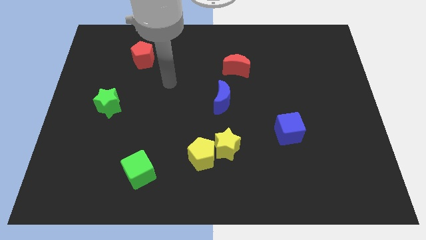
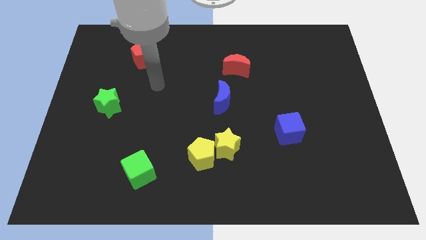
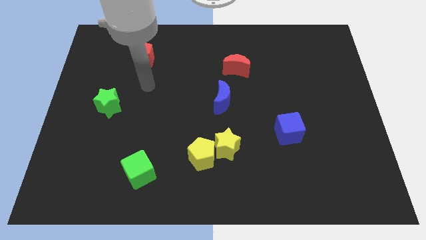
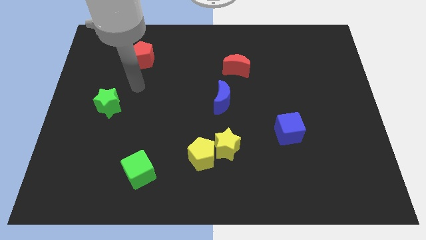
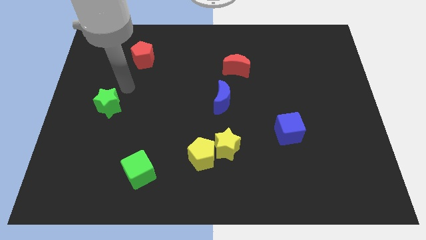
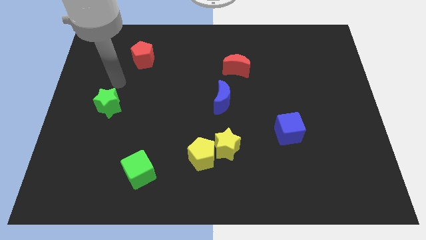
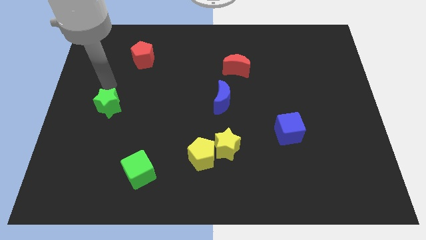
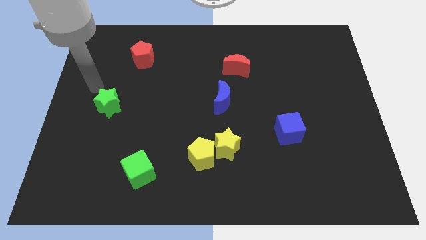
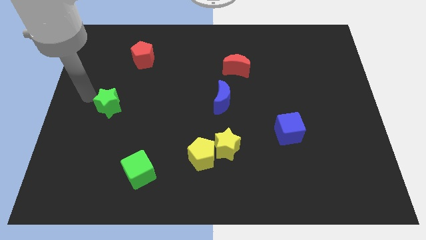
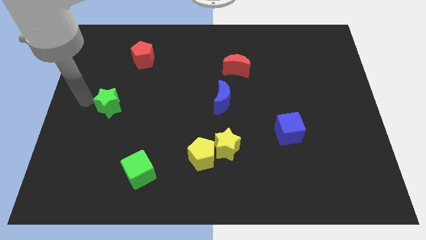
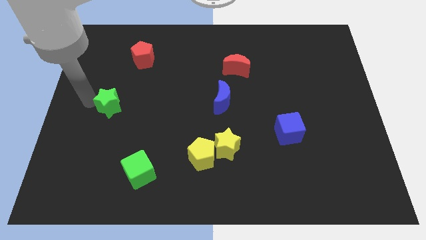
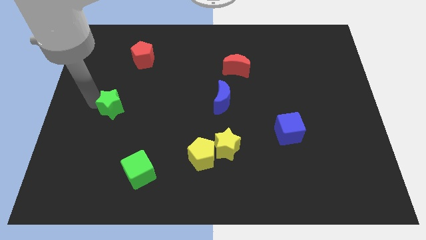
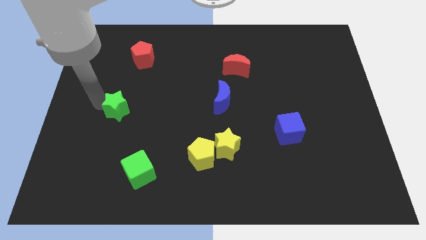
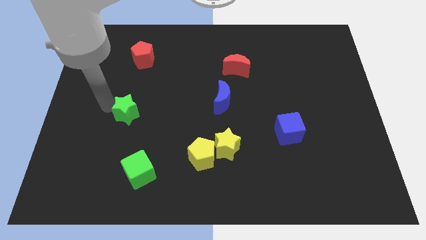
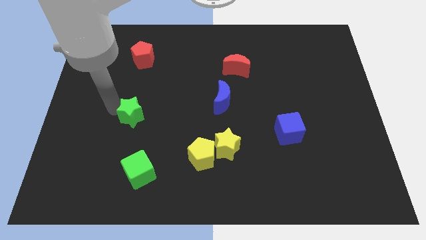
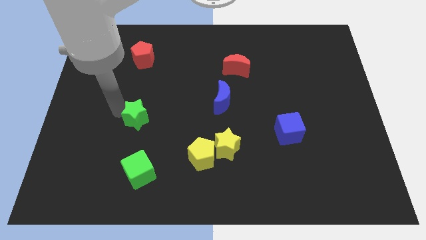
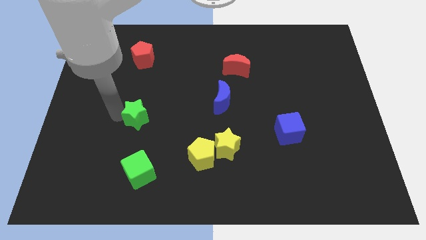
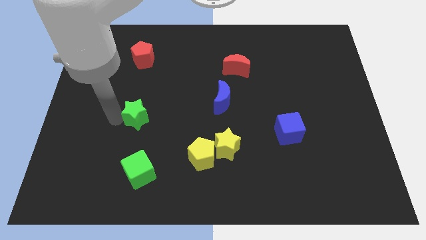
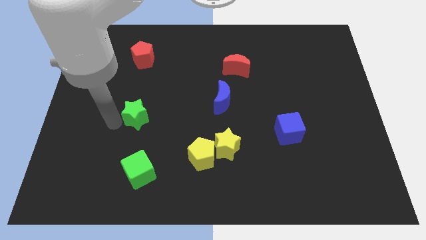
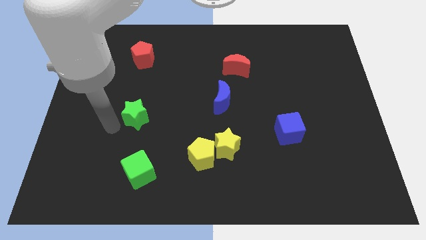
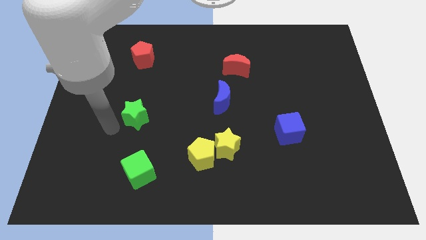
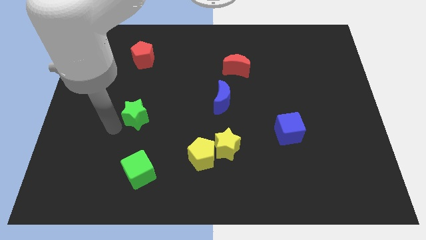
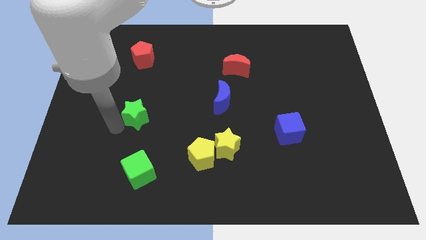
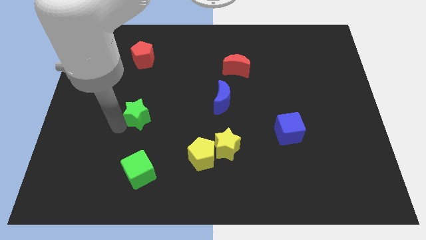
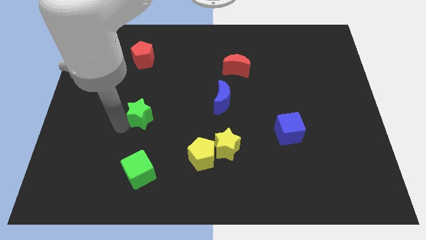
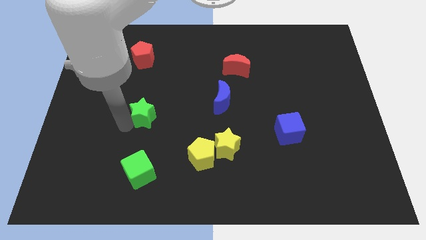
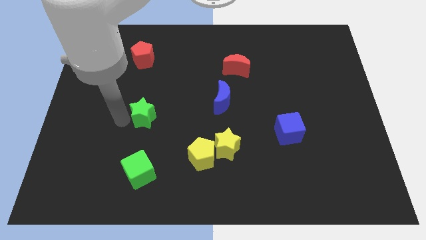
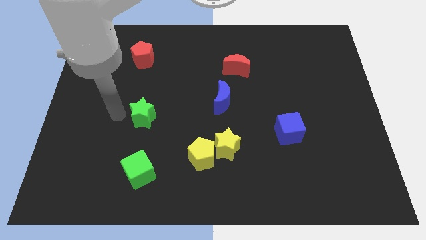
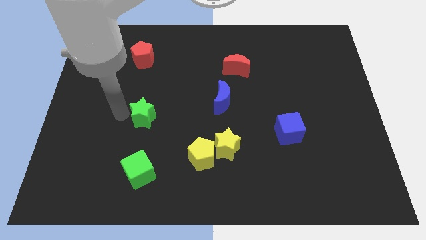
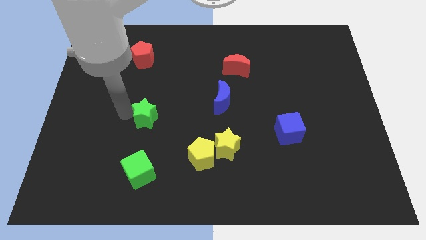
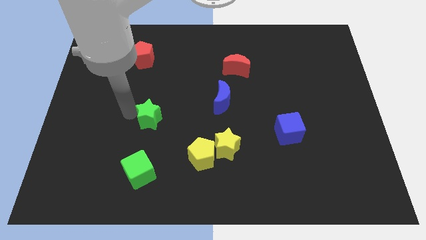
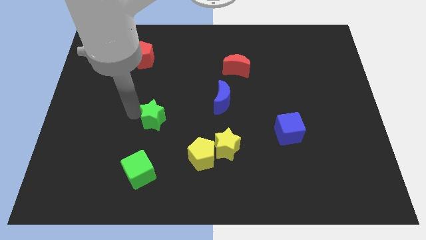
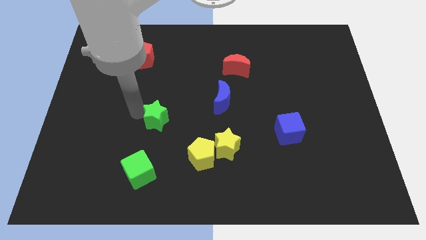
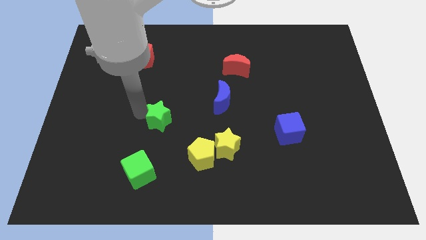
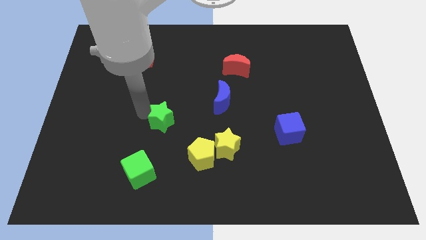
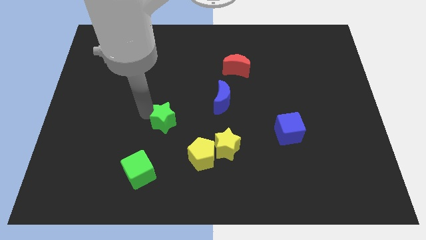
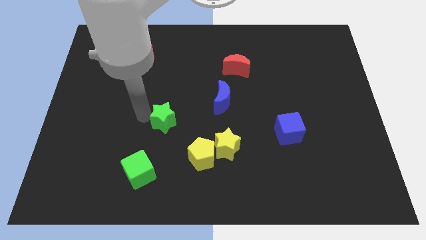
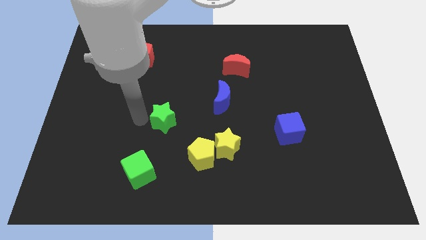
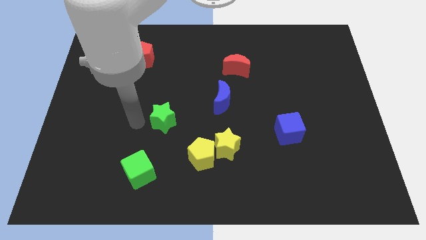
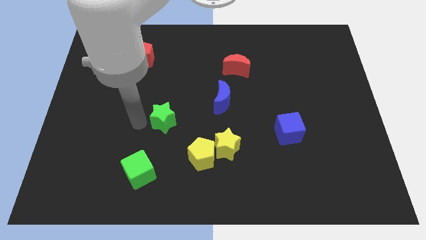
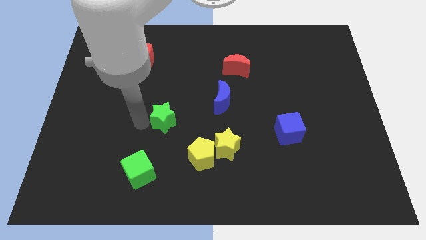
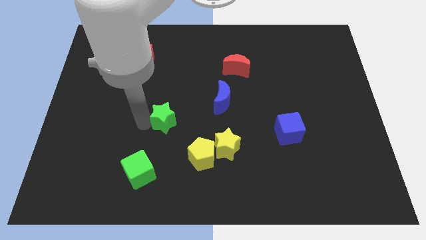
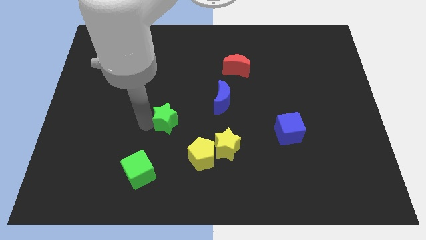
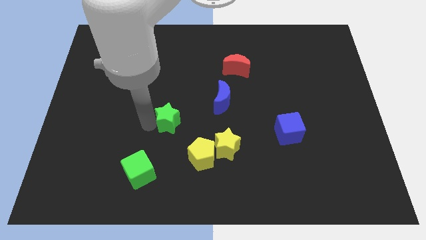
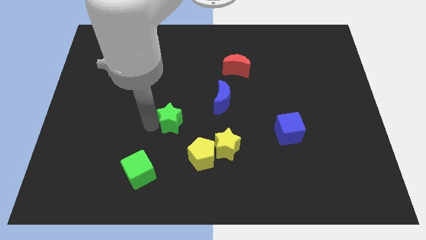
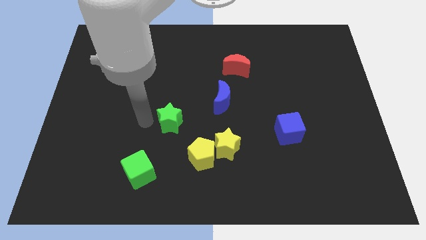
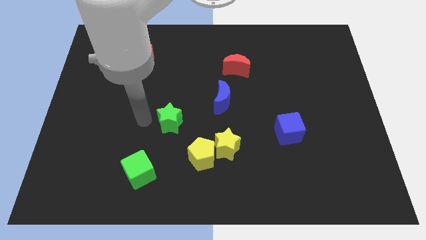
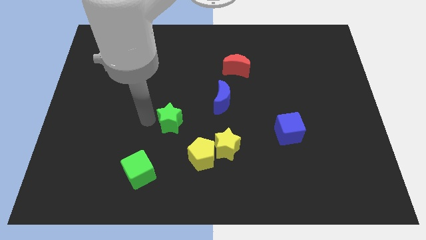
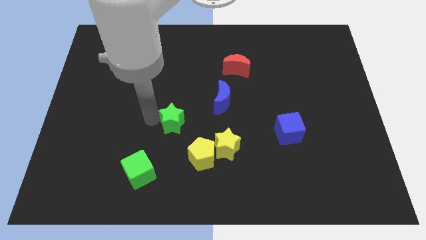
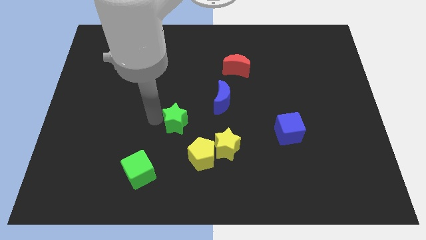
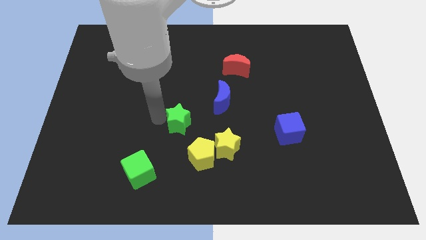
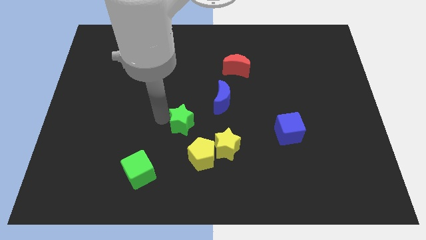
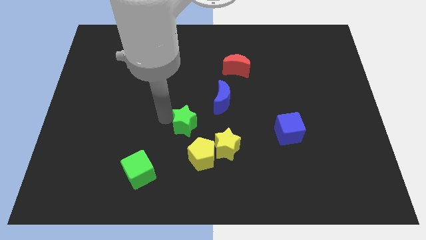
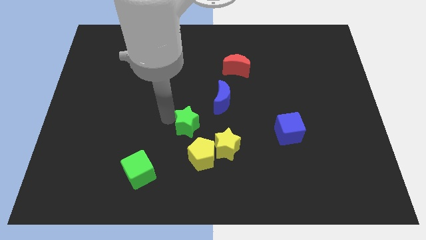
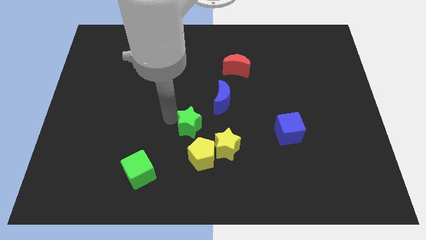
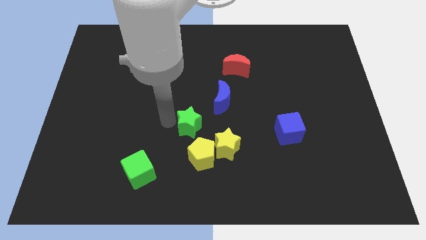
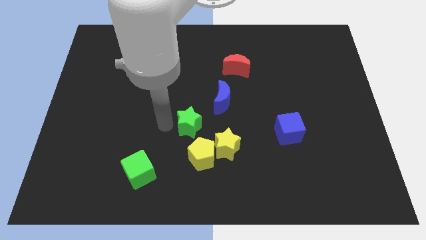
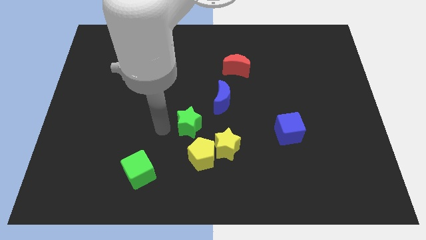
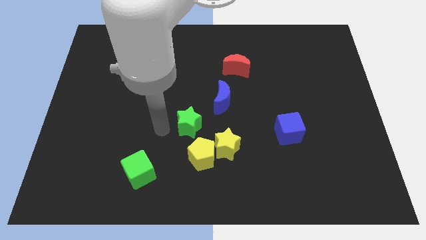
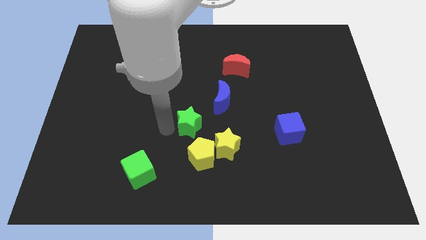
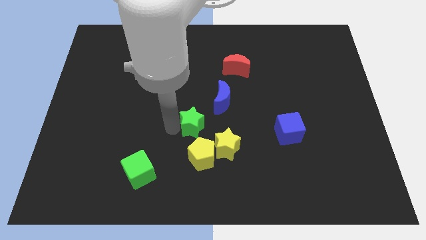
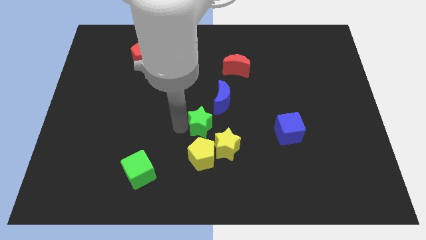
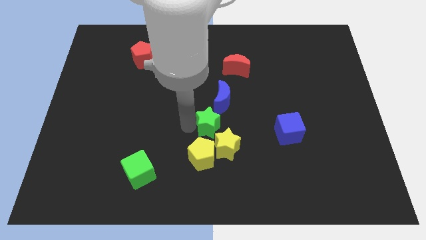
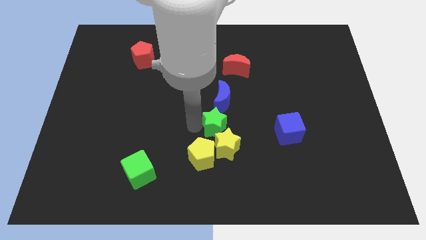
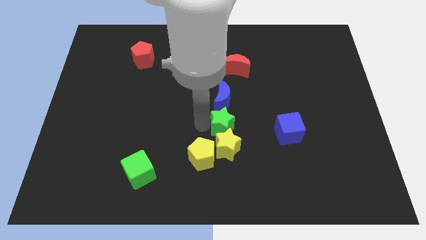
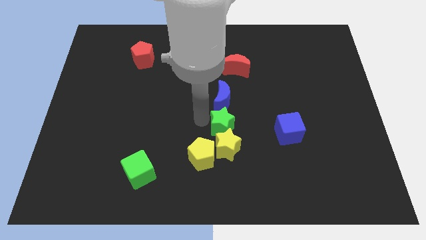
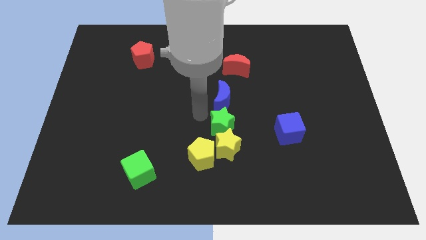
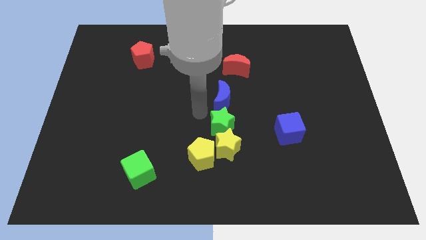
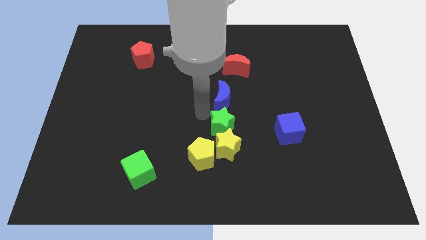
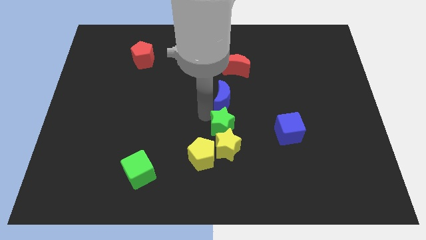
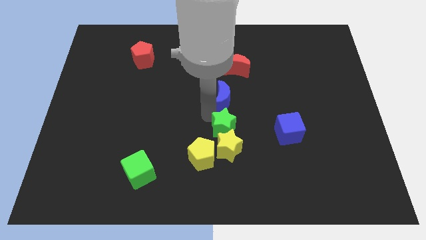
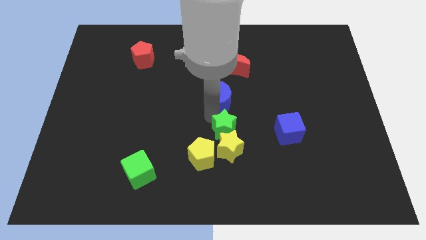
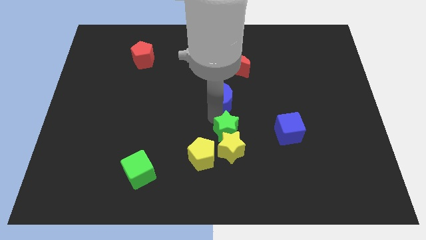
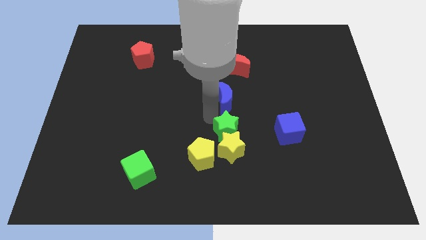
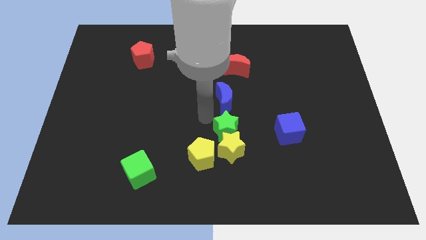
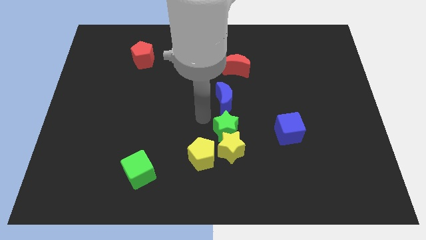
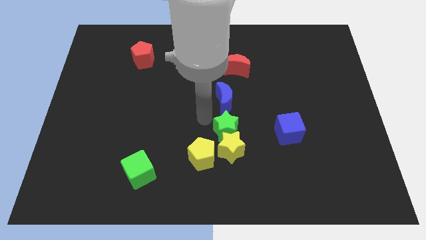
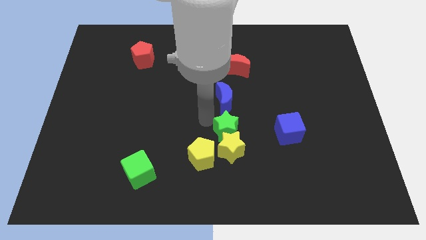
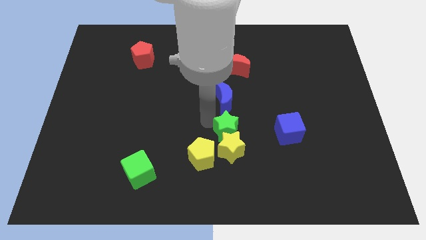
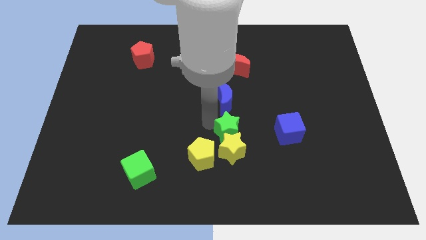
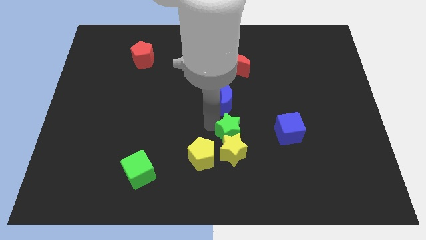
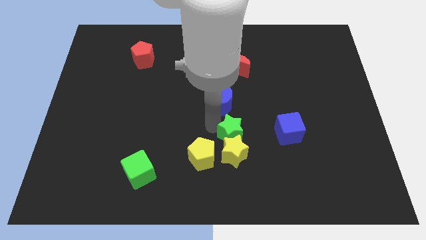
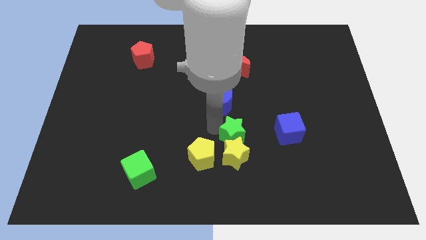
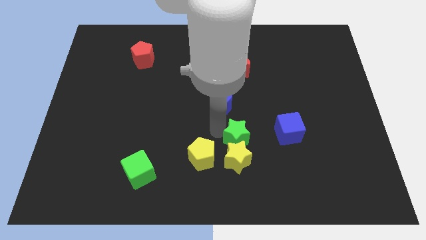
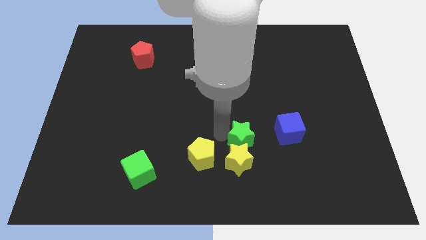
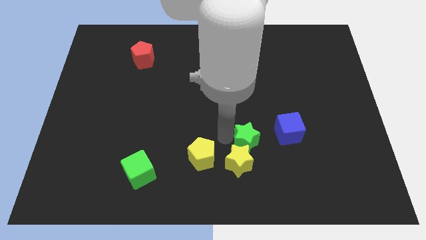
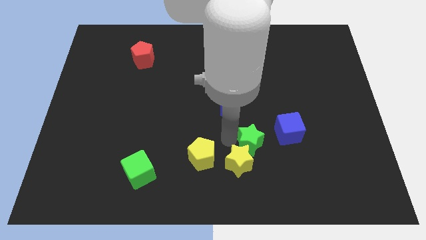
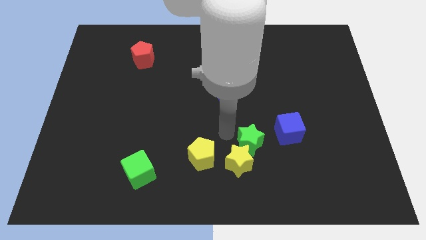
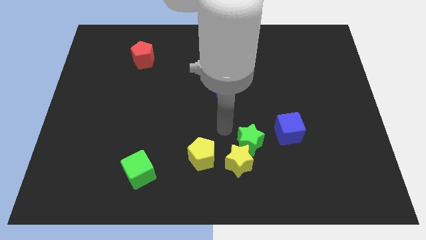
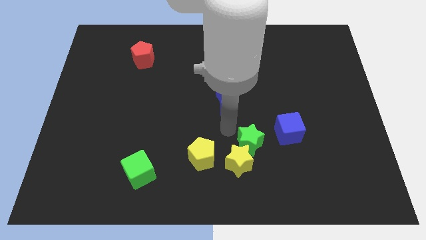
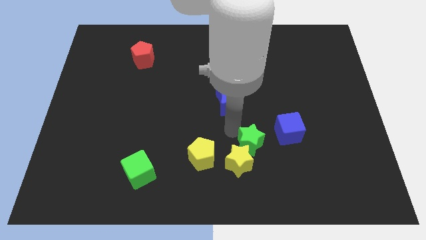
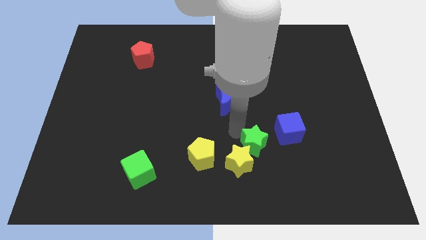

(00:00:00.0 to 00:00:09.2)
slide the green star to the right side of the yellow star
